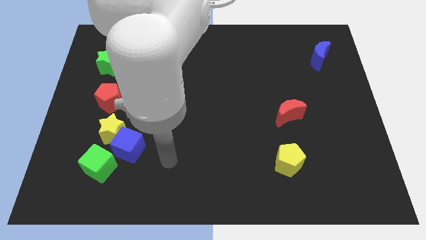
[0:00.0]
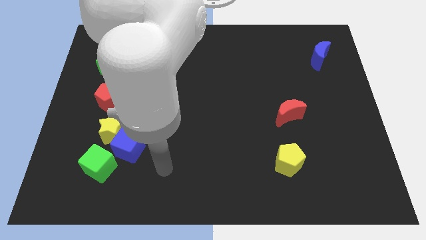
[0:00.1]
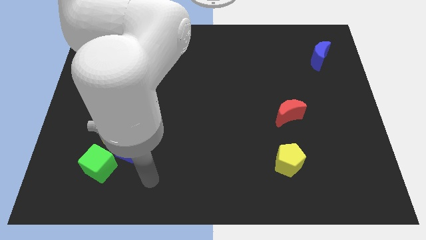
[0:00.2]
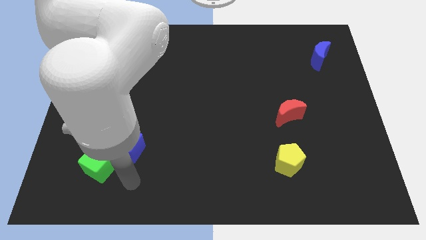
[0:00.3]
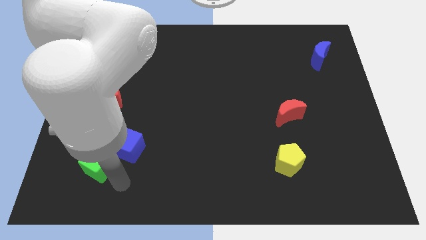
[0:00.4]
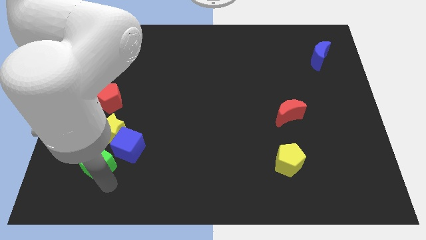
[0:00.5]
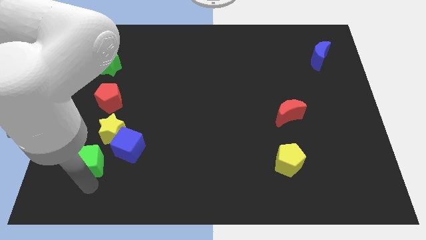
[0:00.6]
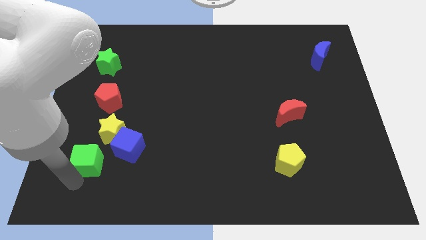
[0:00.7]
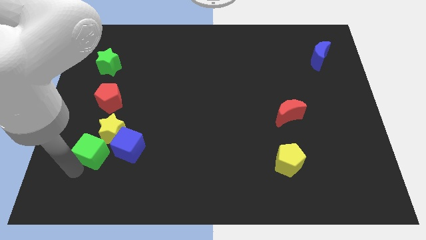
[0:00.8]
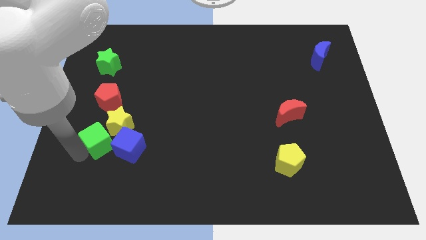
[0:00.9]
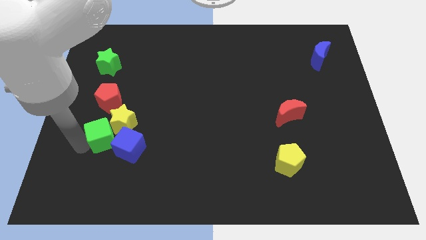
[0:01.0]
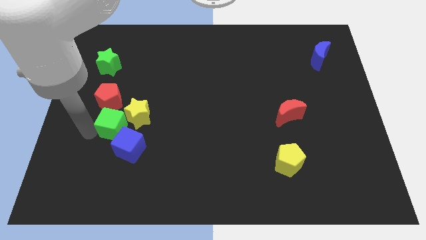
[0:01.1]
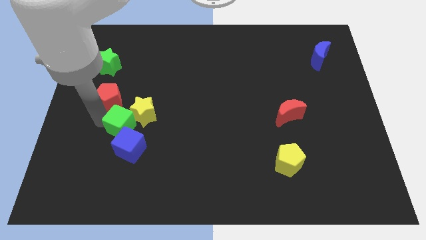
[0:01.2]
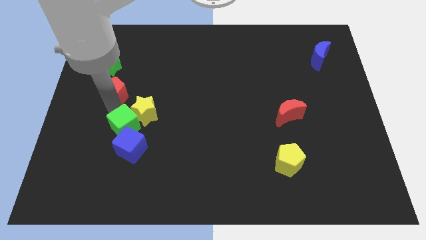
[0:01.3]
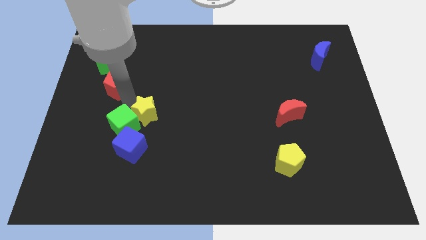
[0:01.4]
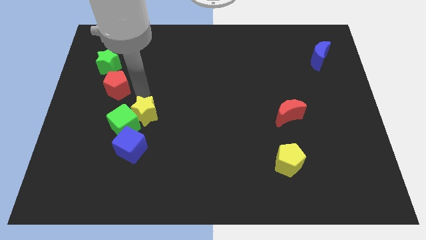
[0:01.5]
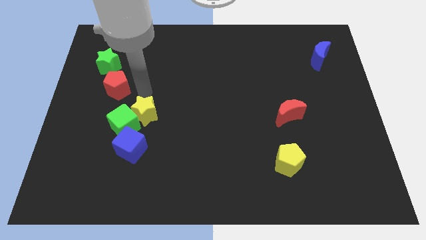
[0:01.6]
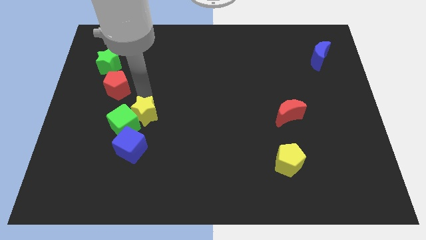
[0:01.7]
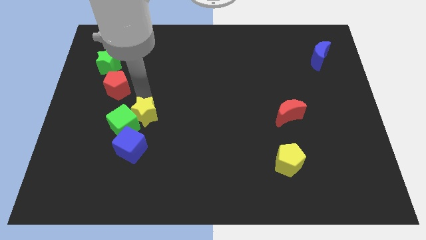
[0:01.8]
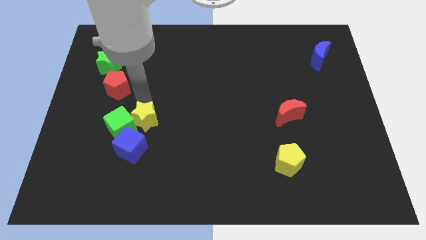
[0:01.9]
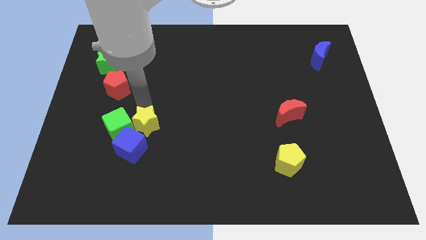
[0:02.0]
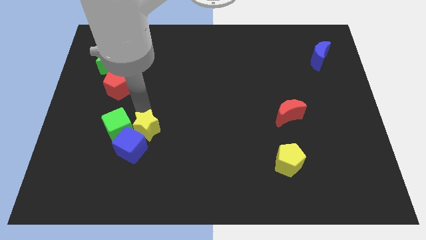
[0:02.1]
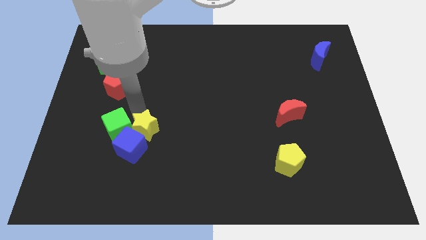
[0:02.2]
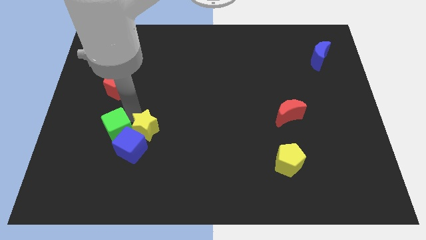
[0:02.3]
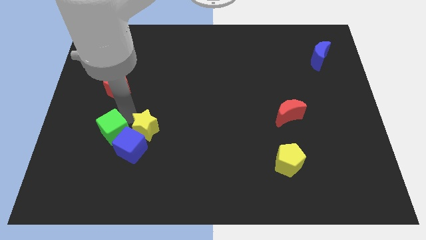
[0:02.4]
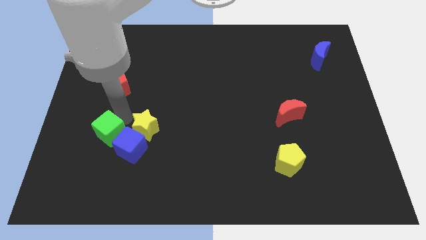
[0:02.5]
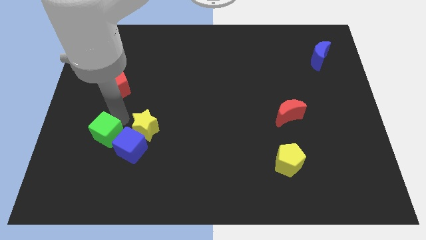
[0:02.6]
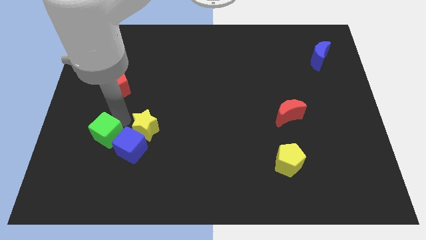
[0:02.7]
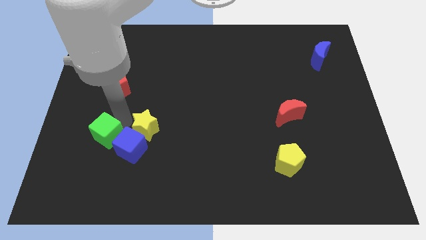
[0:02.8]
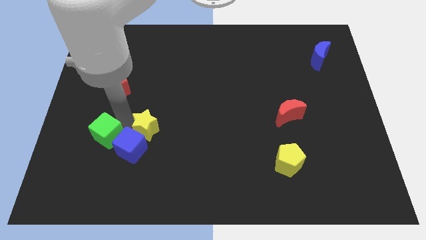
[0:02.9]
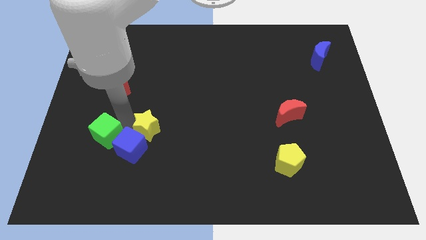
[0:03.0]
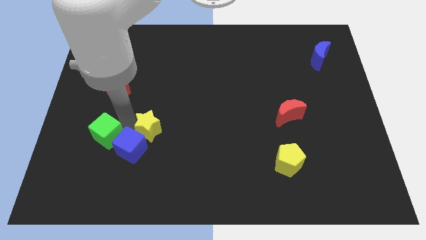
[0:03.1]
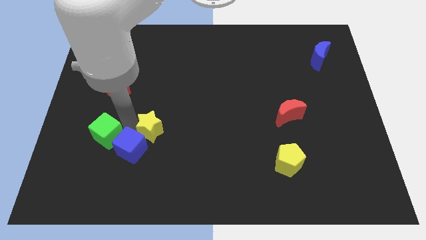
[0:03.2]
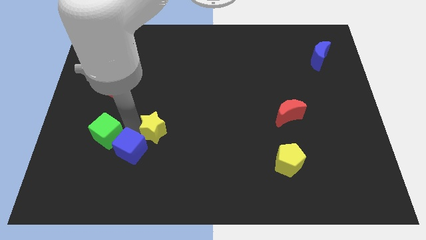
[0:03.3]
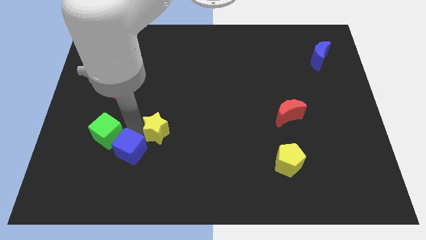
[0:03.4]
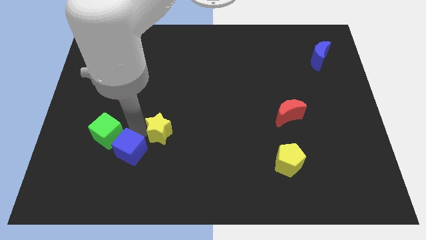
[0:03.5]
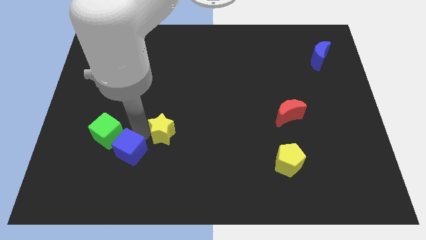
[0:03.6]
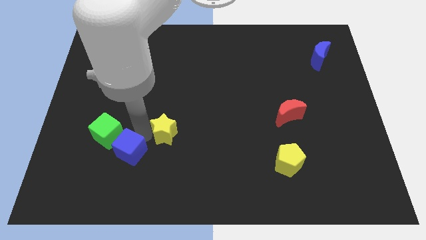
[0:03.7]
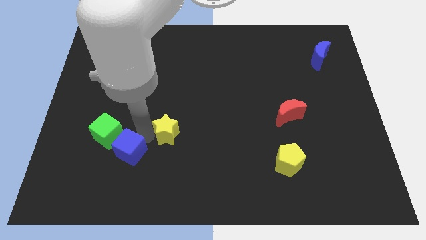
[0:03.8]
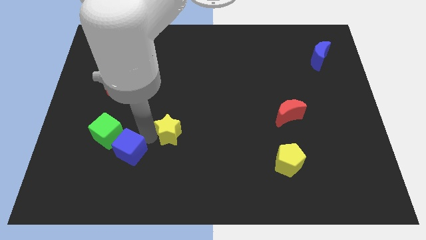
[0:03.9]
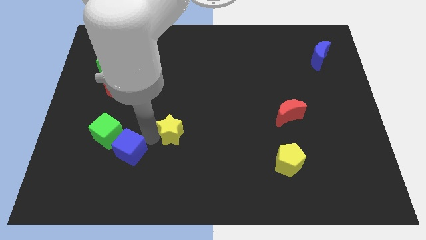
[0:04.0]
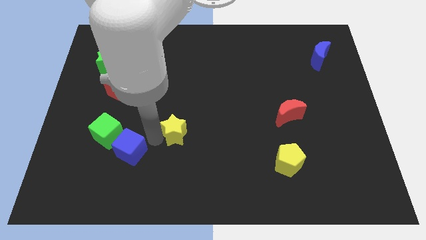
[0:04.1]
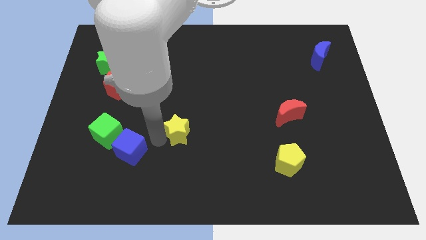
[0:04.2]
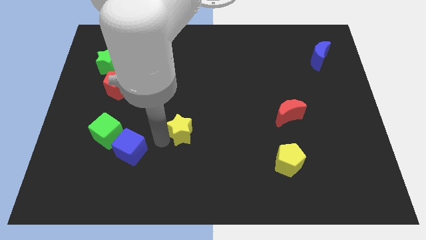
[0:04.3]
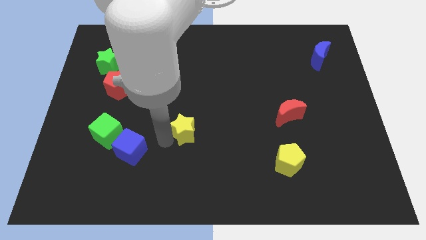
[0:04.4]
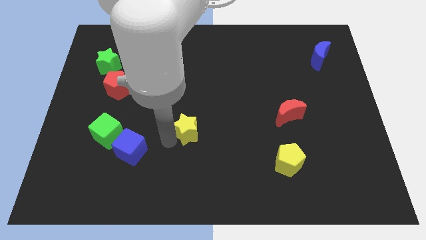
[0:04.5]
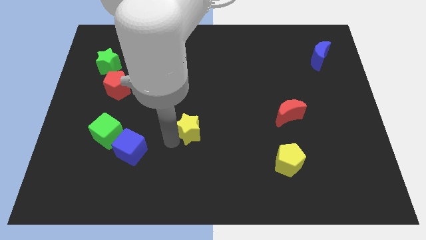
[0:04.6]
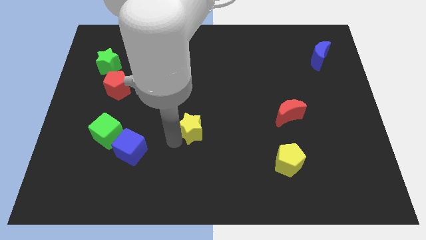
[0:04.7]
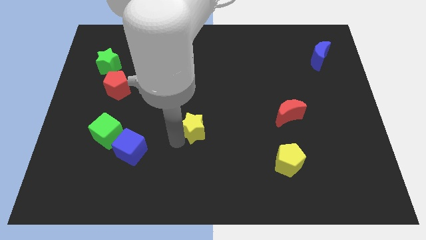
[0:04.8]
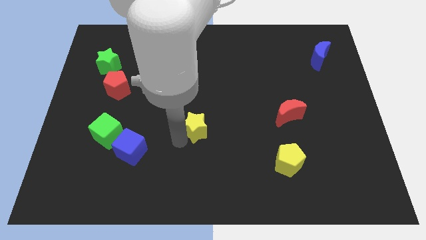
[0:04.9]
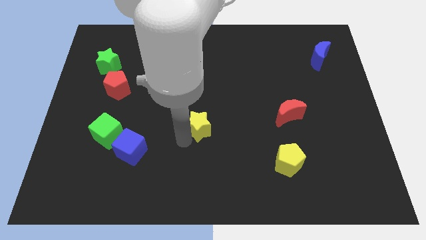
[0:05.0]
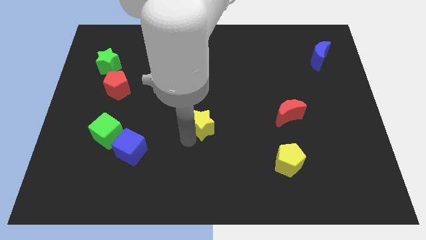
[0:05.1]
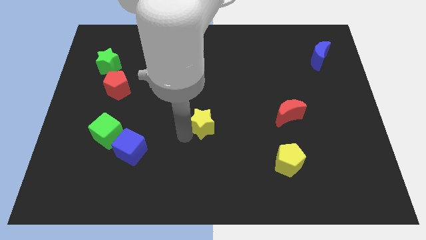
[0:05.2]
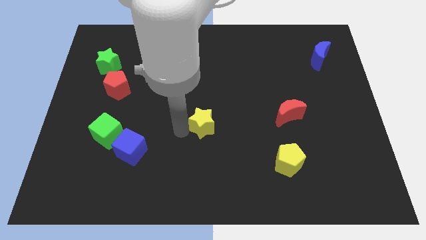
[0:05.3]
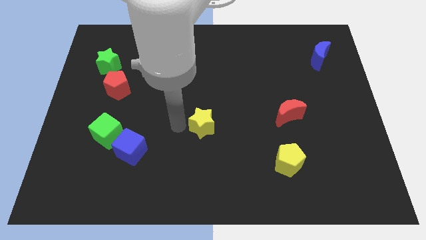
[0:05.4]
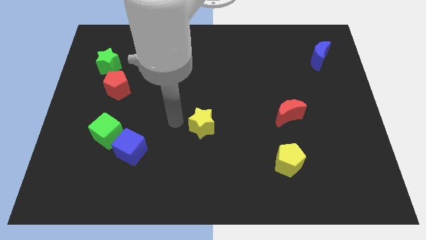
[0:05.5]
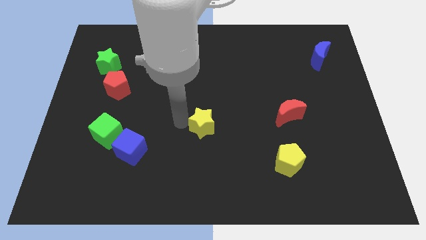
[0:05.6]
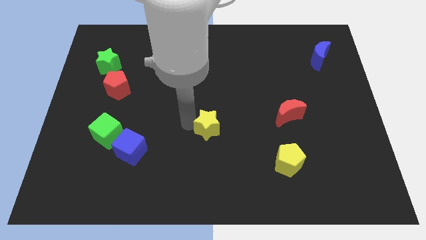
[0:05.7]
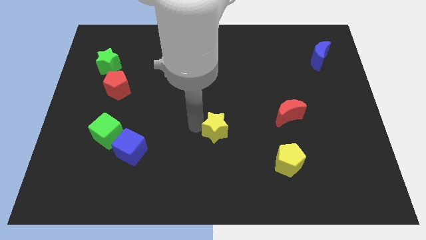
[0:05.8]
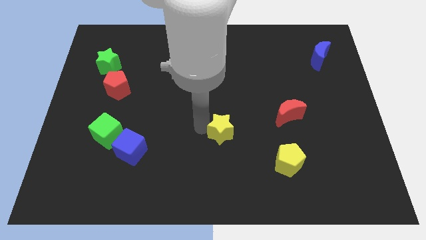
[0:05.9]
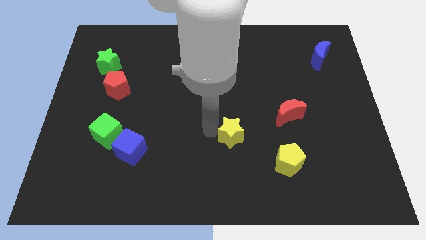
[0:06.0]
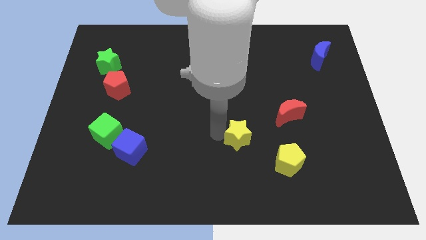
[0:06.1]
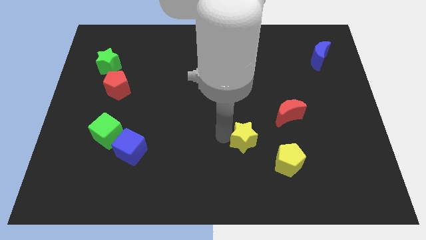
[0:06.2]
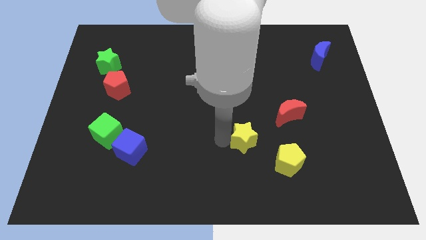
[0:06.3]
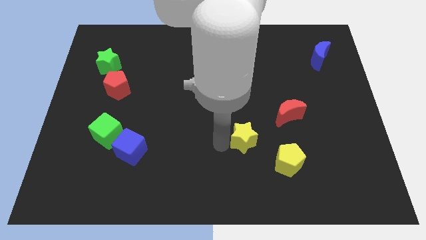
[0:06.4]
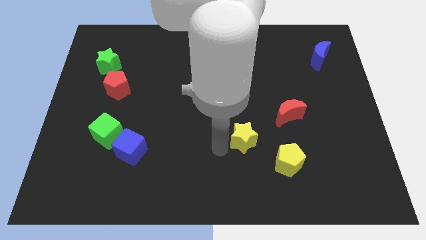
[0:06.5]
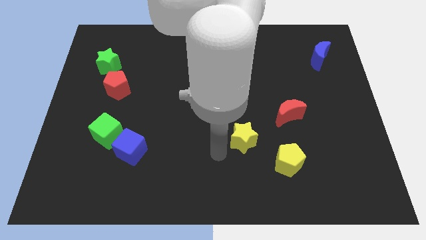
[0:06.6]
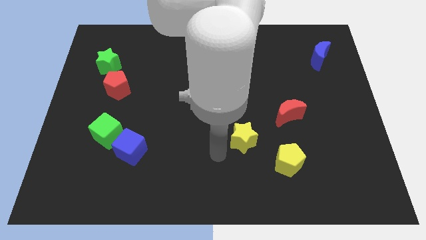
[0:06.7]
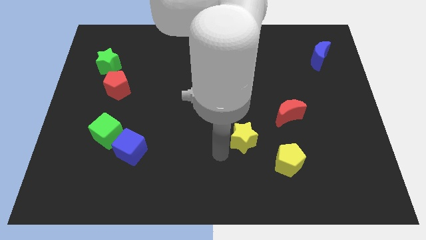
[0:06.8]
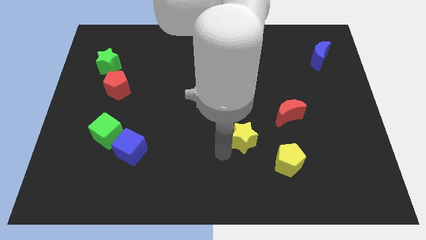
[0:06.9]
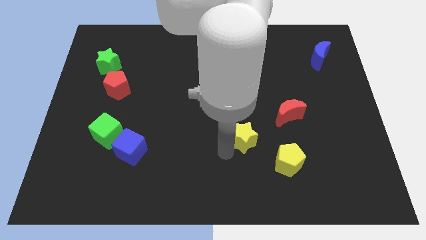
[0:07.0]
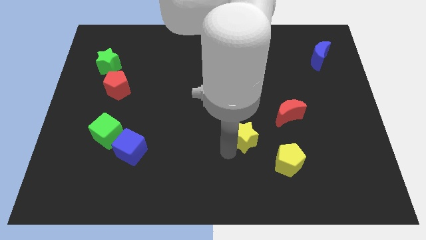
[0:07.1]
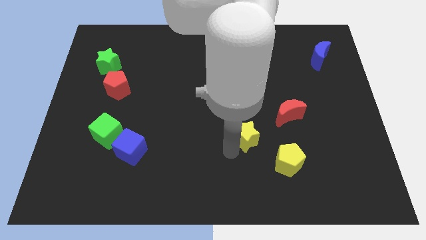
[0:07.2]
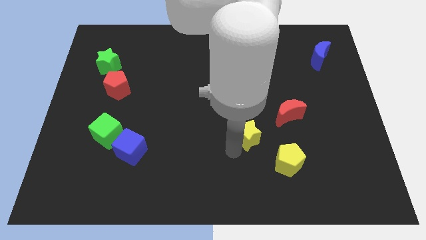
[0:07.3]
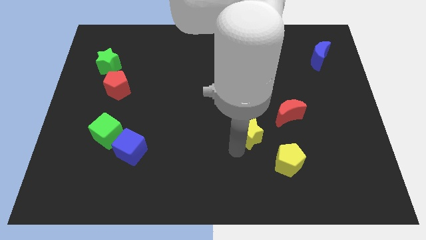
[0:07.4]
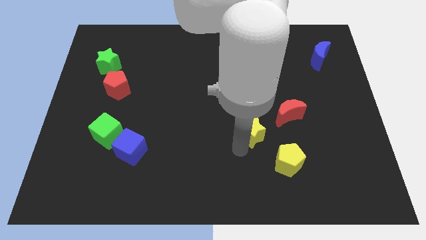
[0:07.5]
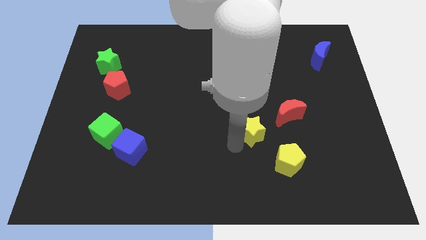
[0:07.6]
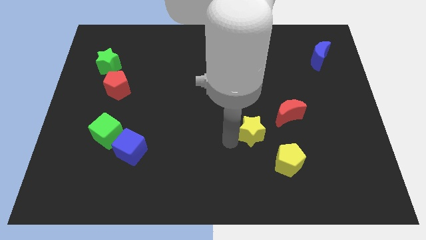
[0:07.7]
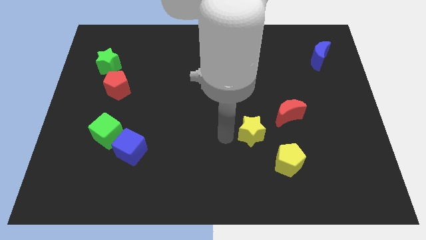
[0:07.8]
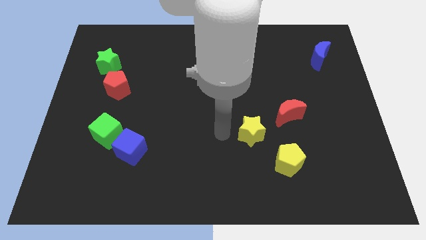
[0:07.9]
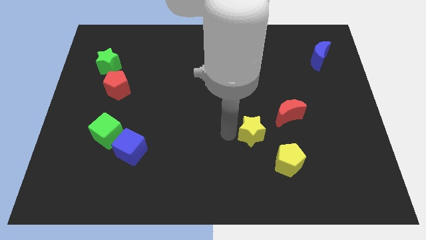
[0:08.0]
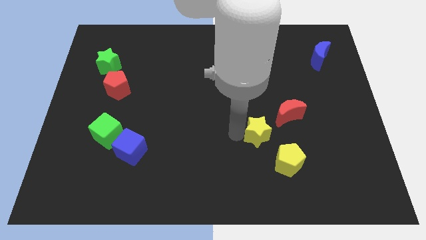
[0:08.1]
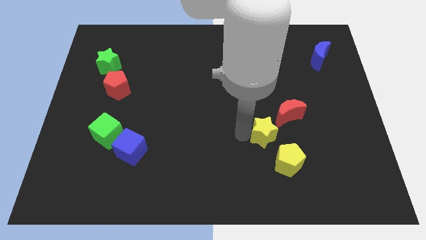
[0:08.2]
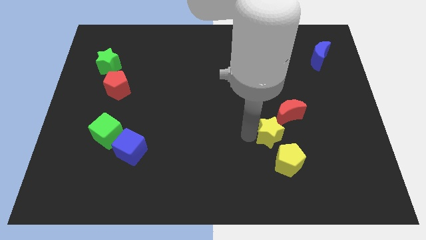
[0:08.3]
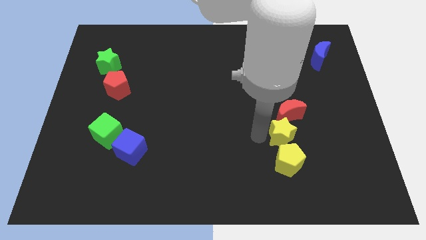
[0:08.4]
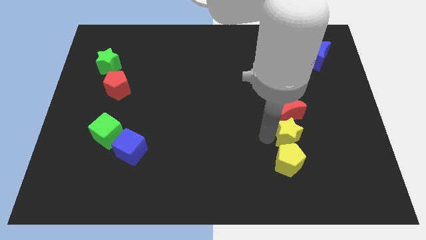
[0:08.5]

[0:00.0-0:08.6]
move the yellow star diagonally down and to the right of the red moon
